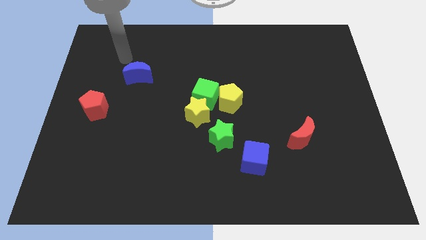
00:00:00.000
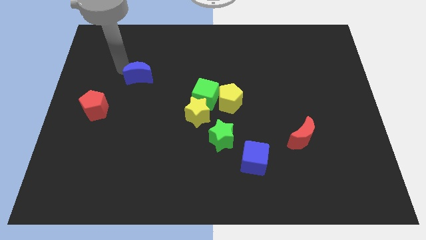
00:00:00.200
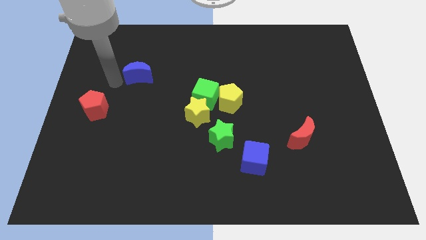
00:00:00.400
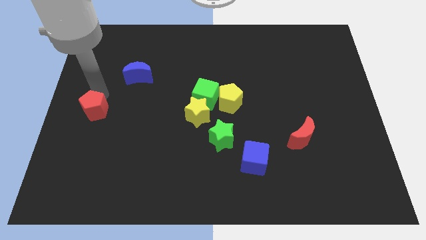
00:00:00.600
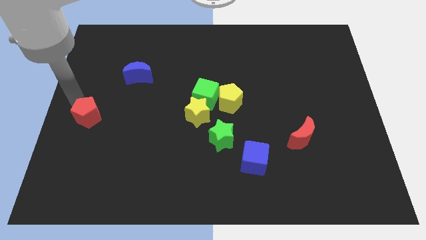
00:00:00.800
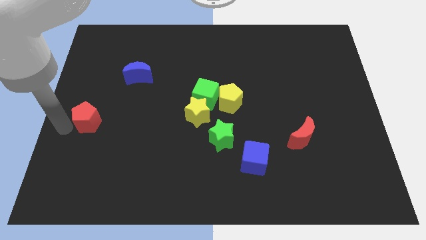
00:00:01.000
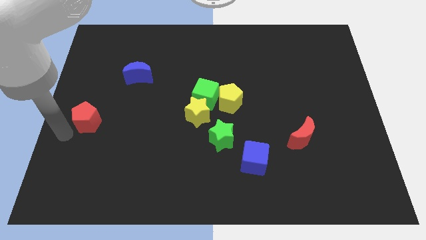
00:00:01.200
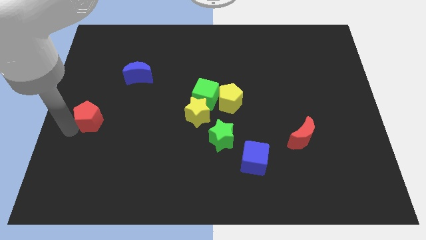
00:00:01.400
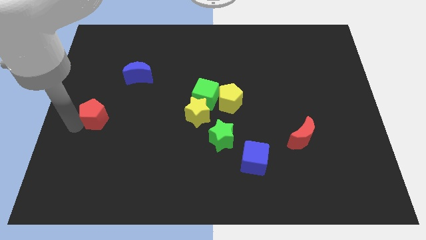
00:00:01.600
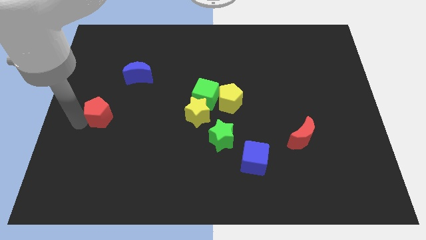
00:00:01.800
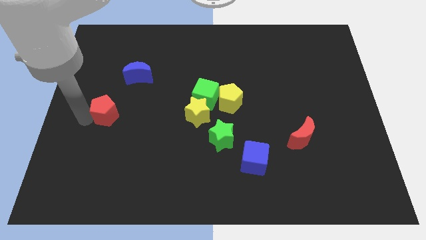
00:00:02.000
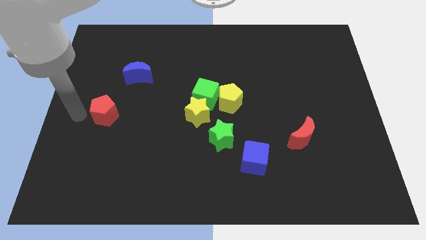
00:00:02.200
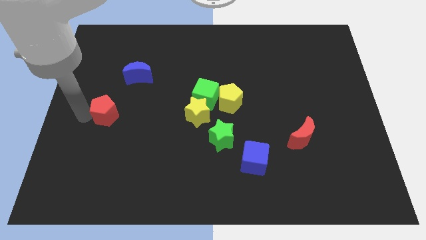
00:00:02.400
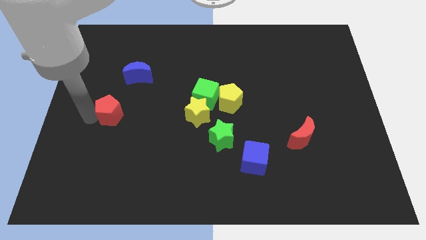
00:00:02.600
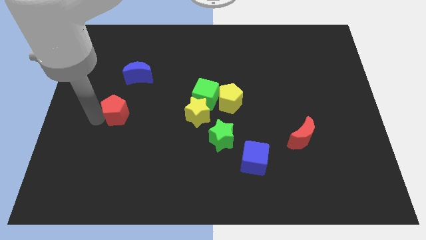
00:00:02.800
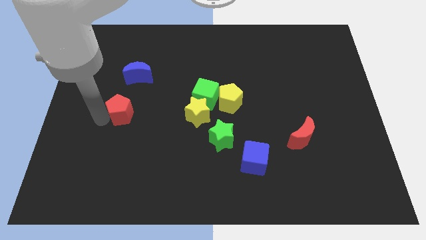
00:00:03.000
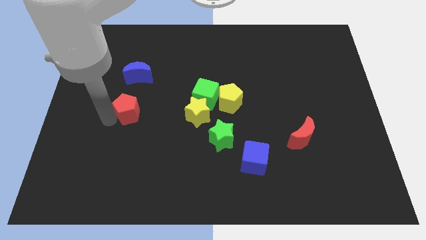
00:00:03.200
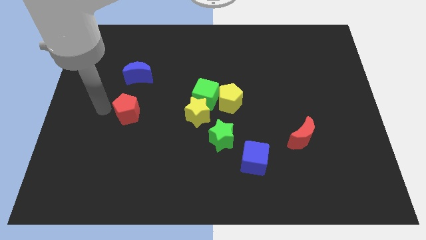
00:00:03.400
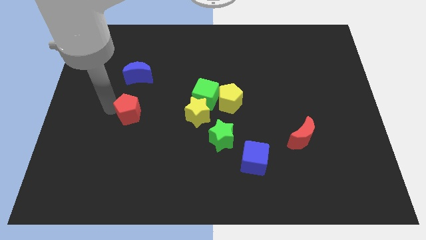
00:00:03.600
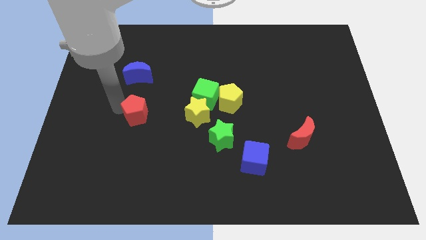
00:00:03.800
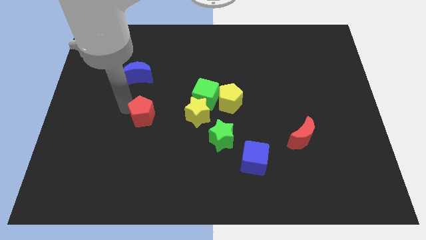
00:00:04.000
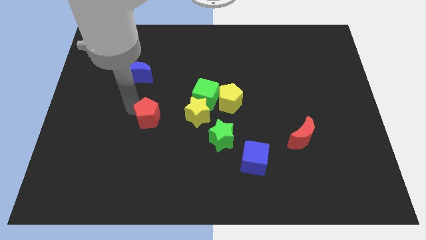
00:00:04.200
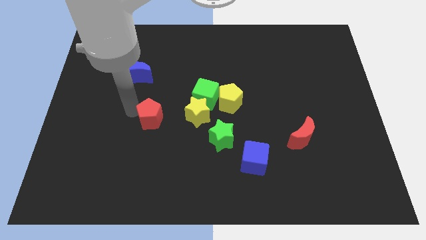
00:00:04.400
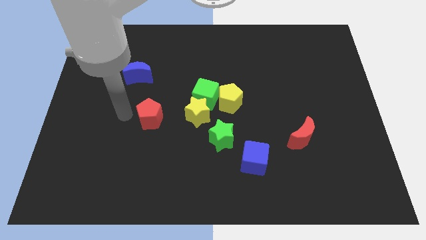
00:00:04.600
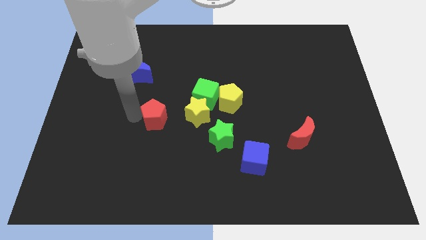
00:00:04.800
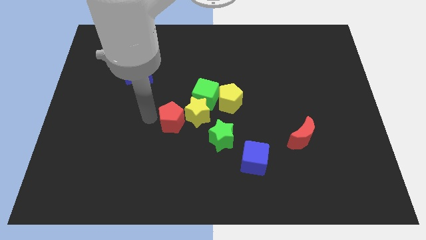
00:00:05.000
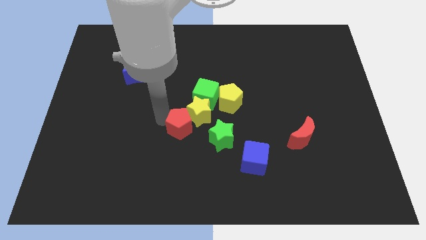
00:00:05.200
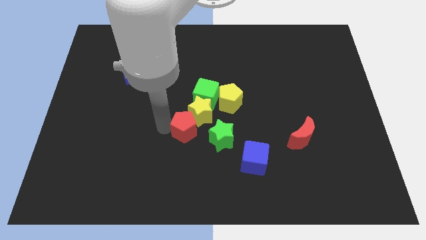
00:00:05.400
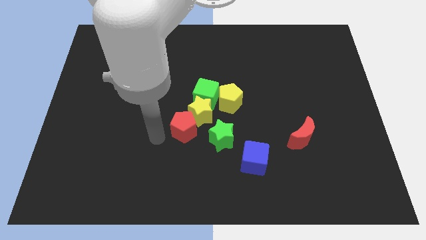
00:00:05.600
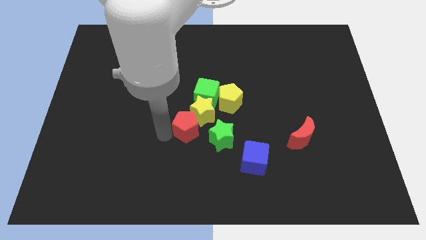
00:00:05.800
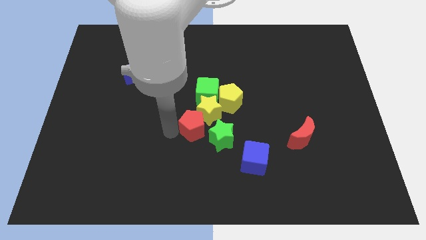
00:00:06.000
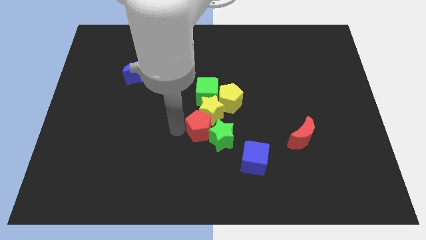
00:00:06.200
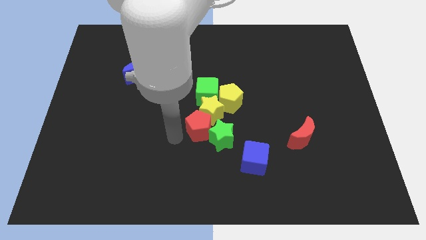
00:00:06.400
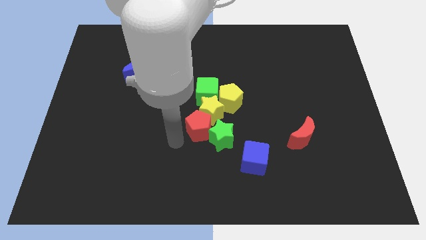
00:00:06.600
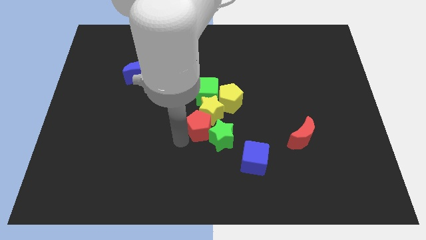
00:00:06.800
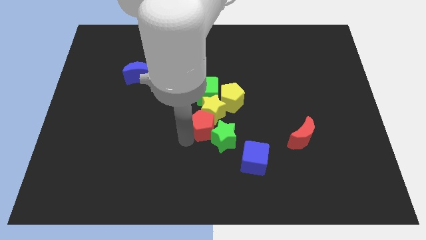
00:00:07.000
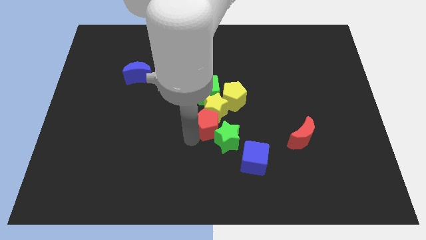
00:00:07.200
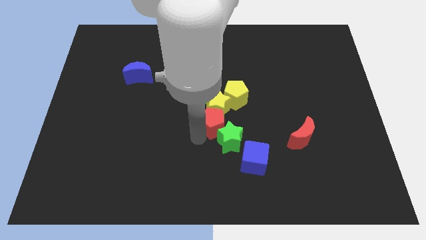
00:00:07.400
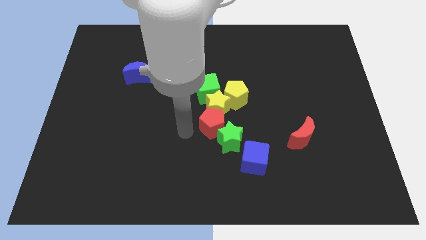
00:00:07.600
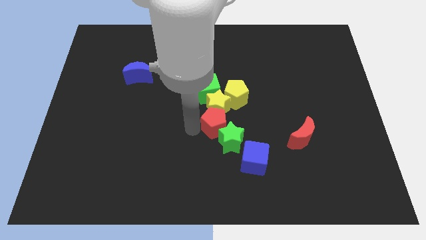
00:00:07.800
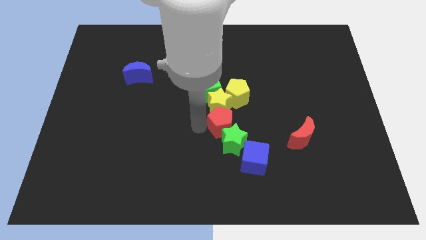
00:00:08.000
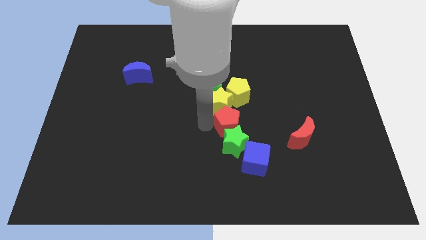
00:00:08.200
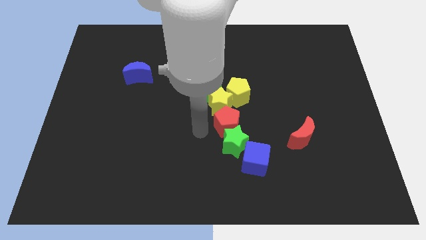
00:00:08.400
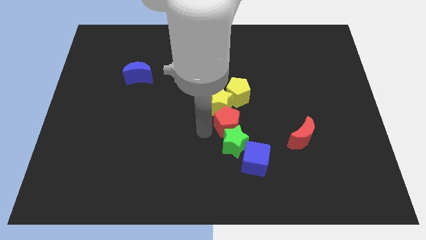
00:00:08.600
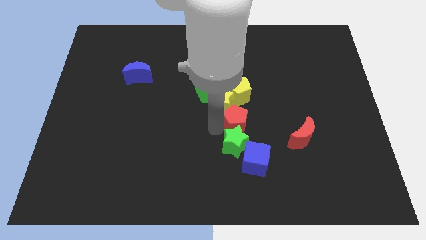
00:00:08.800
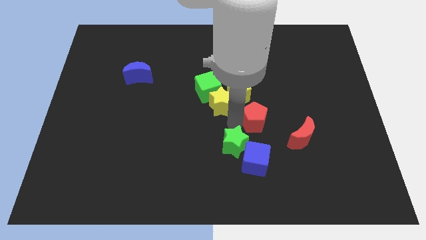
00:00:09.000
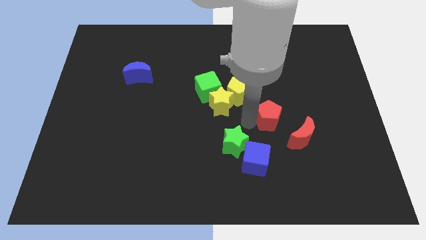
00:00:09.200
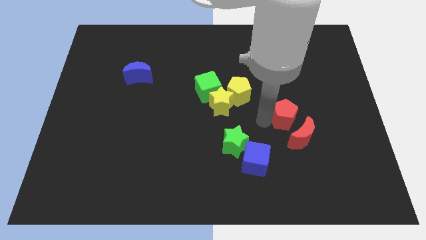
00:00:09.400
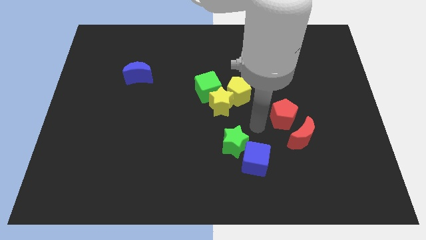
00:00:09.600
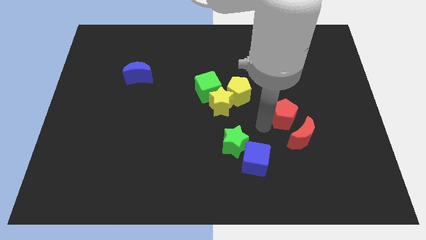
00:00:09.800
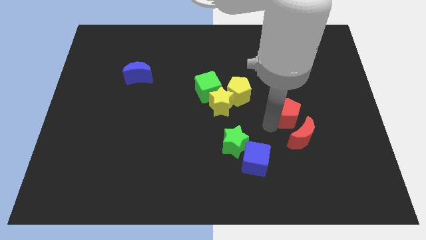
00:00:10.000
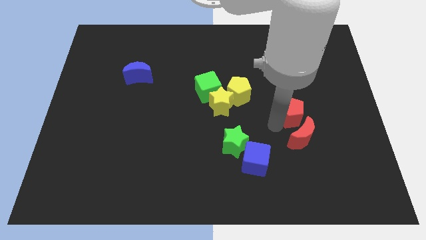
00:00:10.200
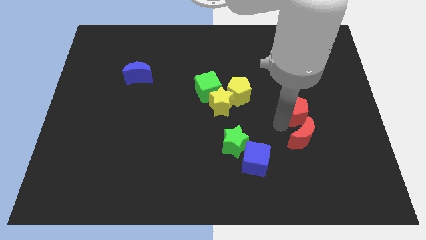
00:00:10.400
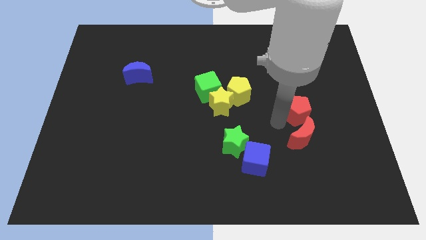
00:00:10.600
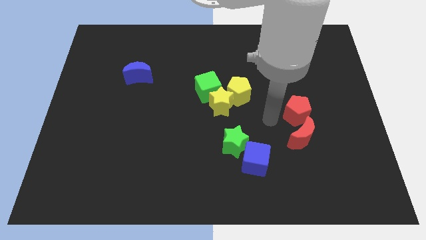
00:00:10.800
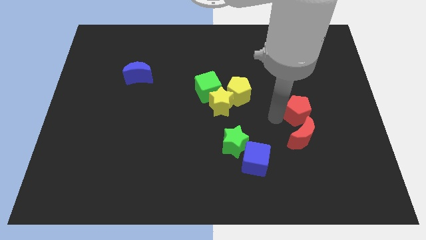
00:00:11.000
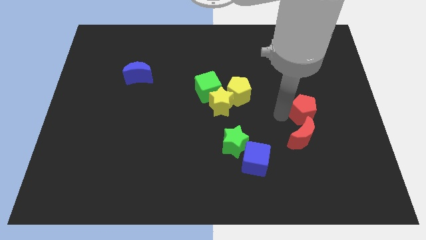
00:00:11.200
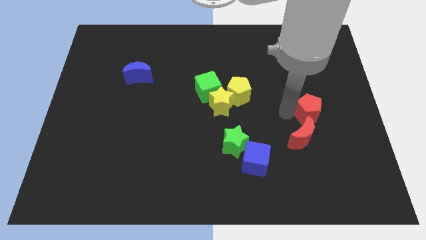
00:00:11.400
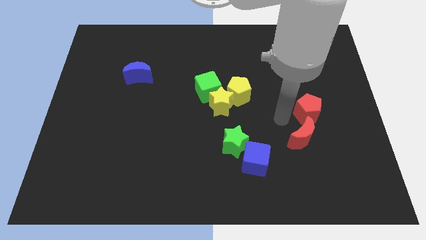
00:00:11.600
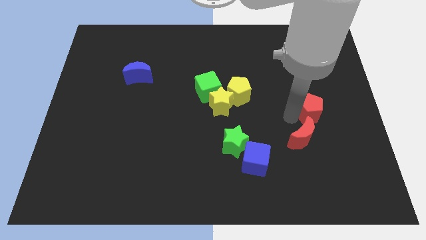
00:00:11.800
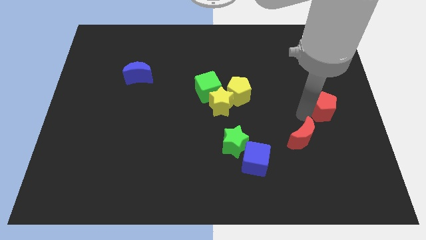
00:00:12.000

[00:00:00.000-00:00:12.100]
push the red pentagon to the right side

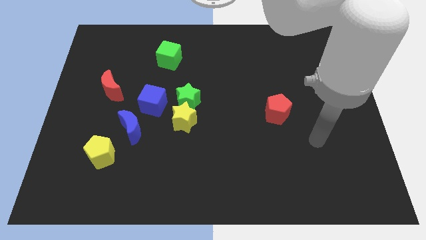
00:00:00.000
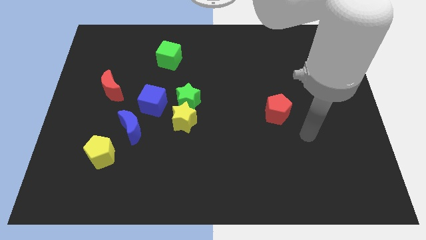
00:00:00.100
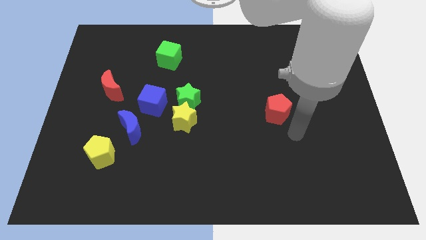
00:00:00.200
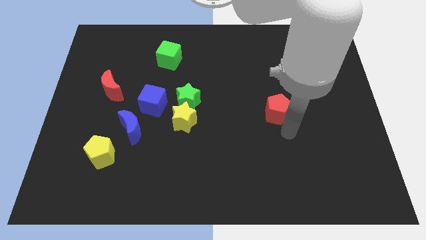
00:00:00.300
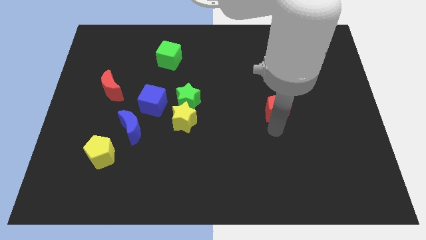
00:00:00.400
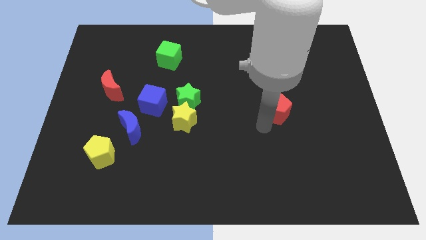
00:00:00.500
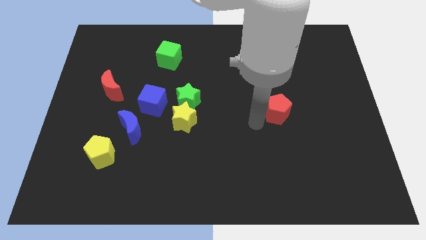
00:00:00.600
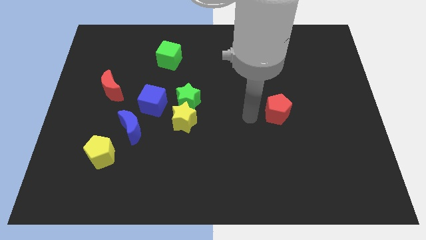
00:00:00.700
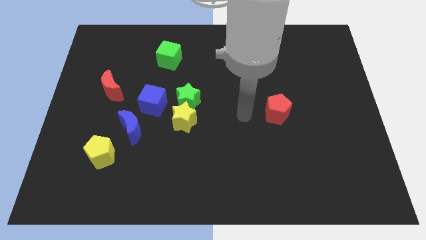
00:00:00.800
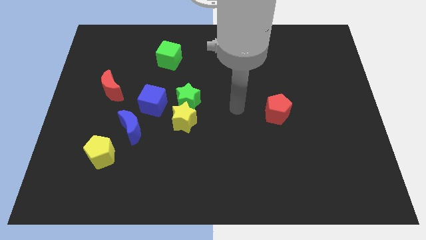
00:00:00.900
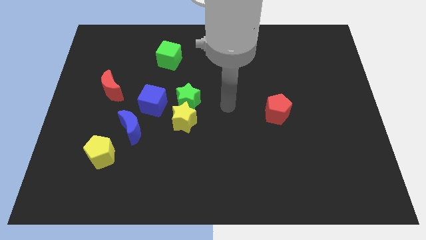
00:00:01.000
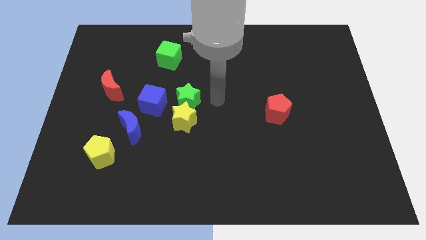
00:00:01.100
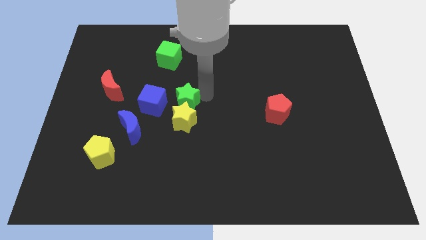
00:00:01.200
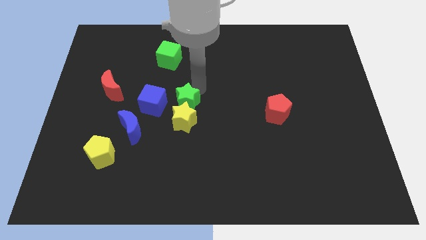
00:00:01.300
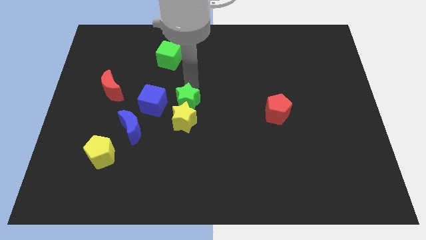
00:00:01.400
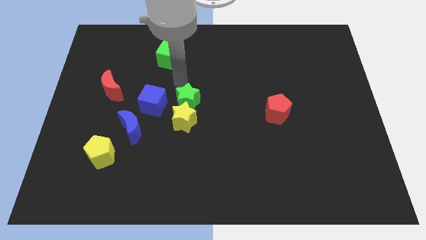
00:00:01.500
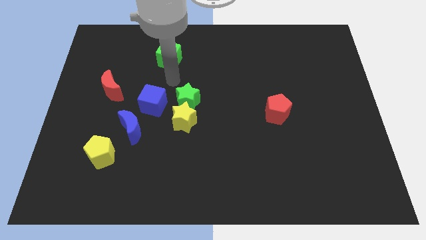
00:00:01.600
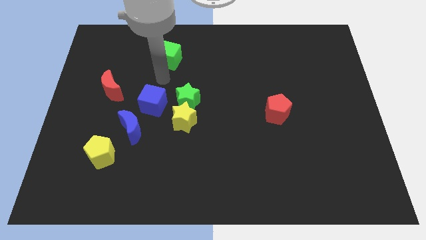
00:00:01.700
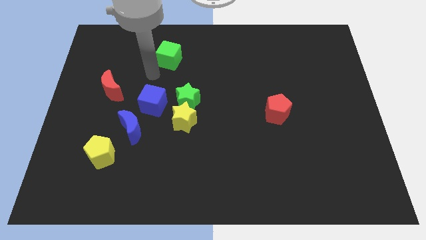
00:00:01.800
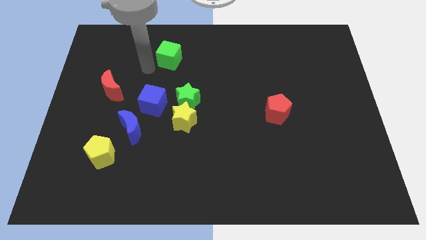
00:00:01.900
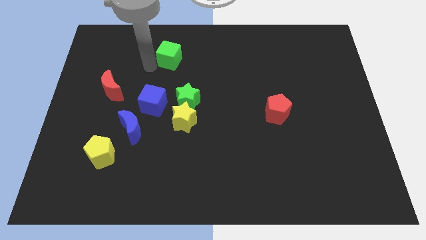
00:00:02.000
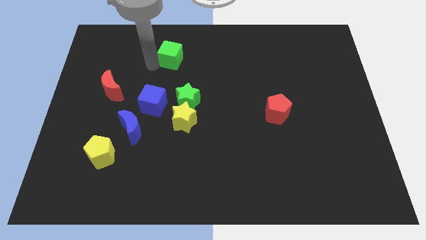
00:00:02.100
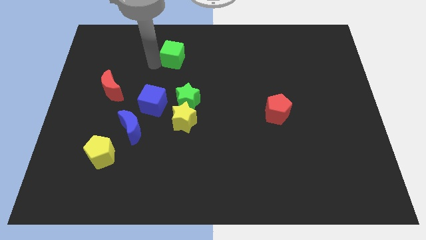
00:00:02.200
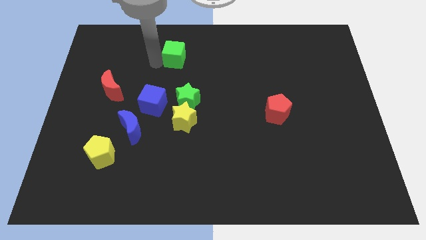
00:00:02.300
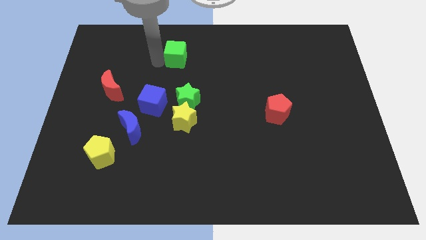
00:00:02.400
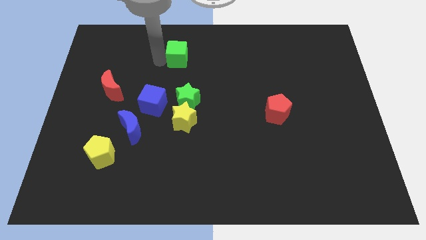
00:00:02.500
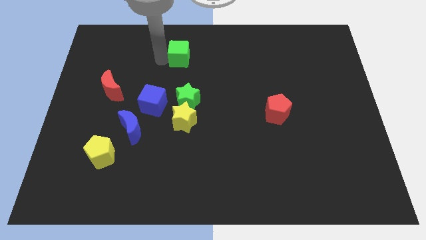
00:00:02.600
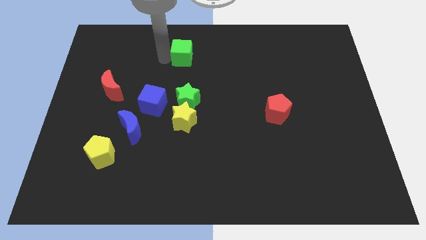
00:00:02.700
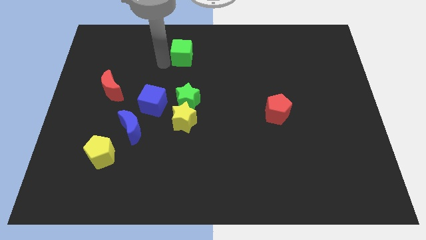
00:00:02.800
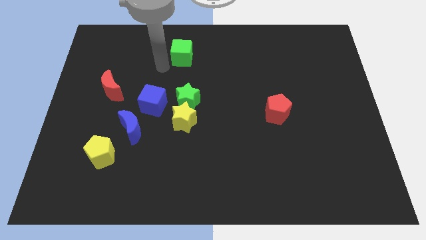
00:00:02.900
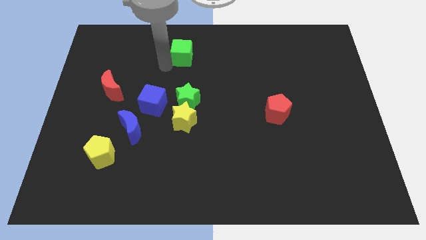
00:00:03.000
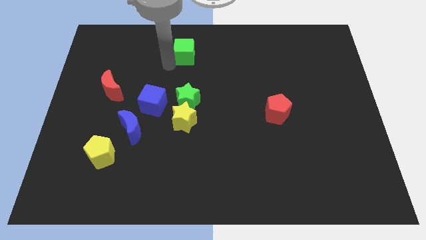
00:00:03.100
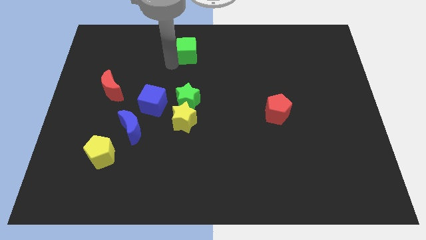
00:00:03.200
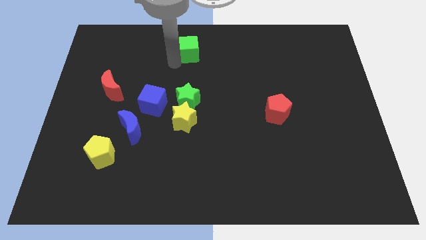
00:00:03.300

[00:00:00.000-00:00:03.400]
put the green cube to the towards your base
